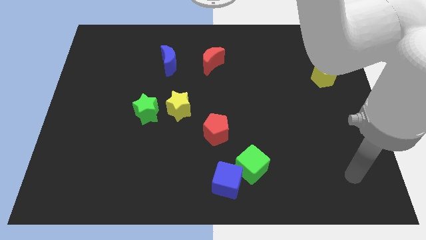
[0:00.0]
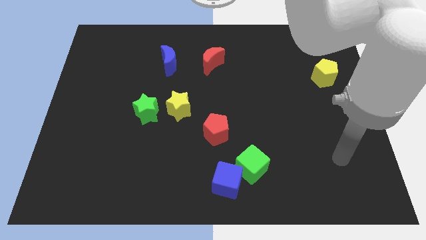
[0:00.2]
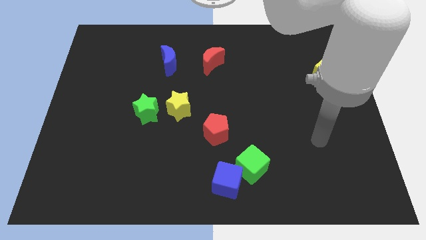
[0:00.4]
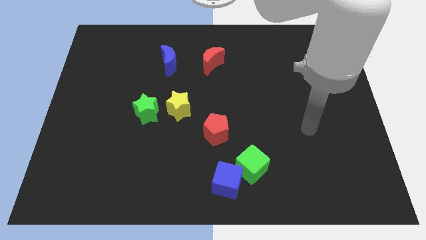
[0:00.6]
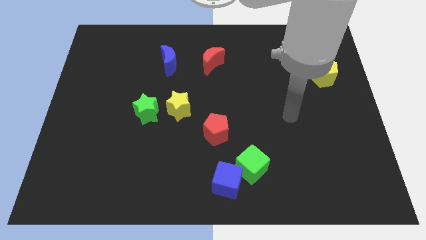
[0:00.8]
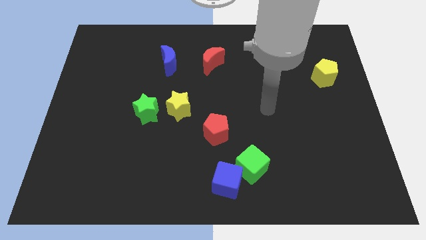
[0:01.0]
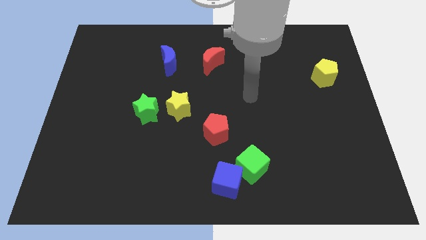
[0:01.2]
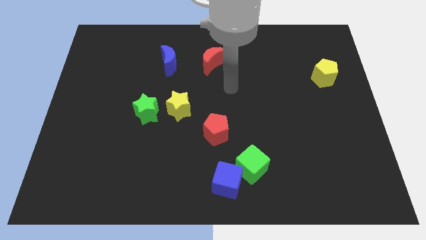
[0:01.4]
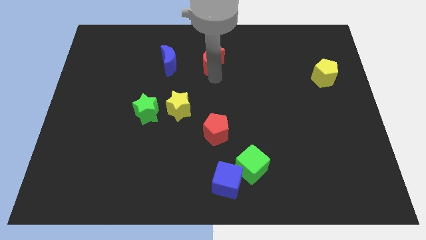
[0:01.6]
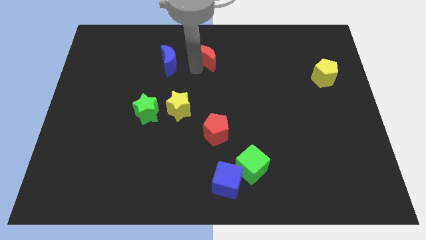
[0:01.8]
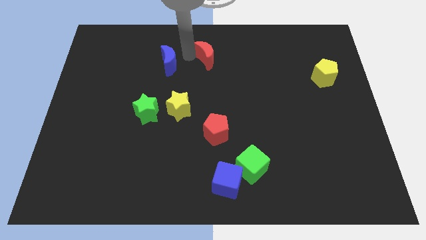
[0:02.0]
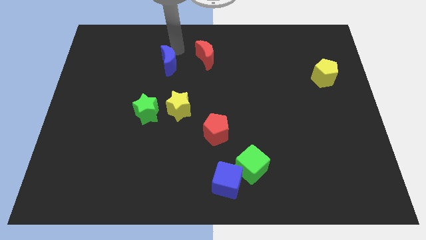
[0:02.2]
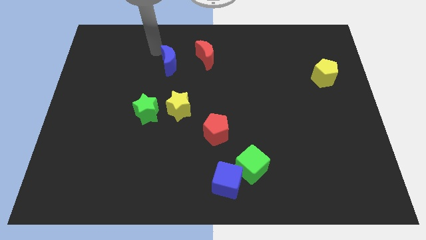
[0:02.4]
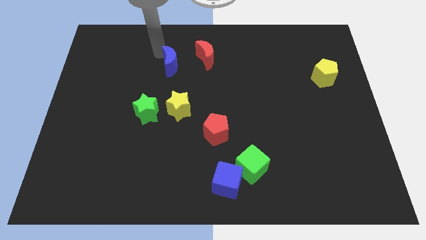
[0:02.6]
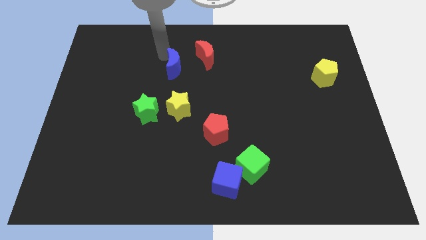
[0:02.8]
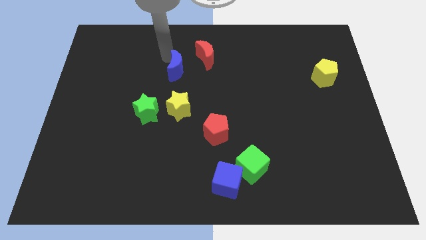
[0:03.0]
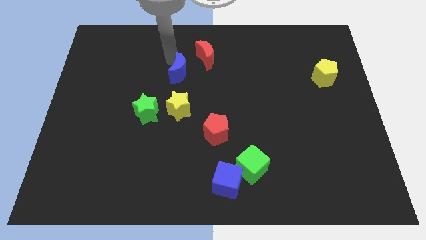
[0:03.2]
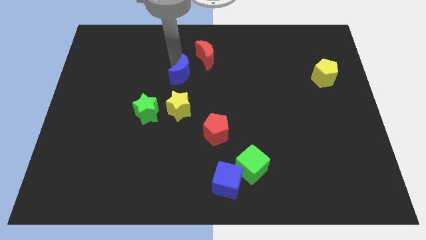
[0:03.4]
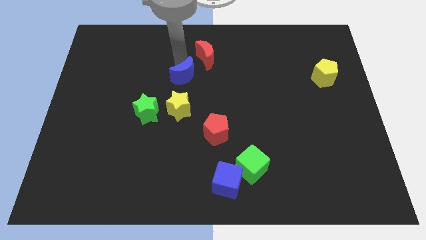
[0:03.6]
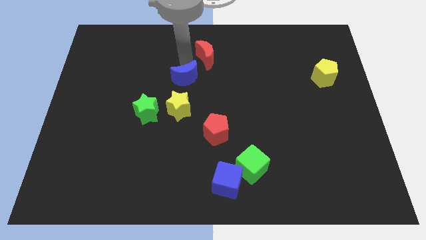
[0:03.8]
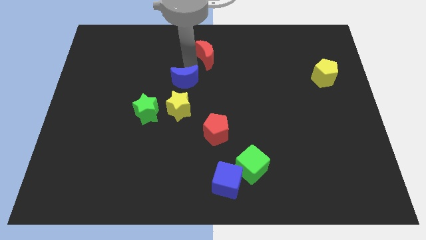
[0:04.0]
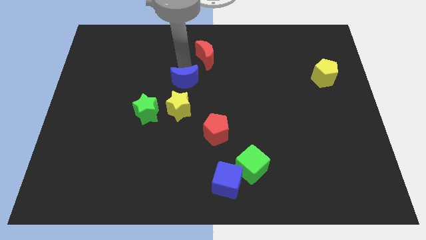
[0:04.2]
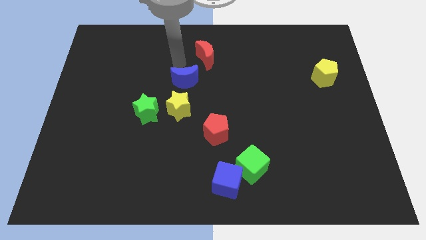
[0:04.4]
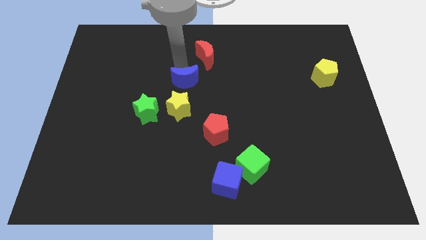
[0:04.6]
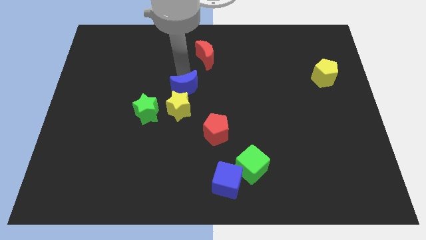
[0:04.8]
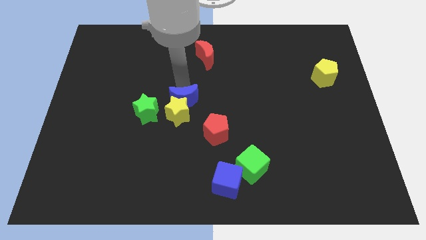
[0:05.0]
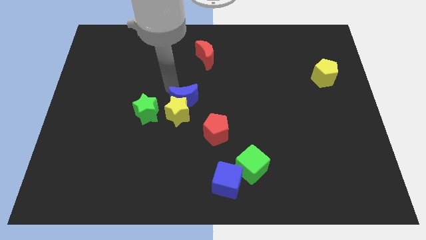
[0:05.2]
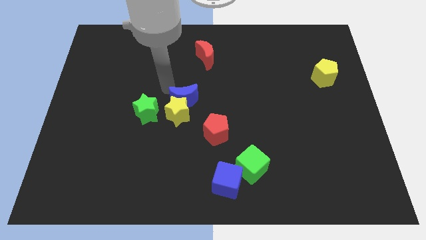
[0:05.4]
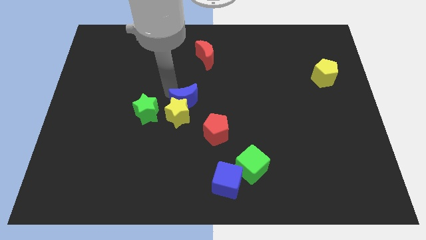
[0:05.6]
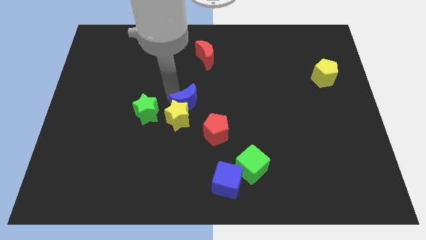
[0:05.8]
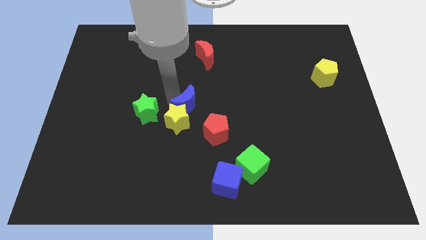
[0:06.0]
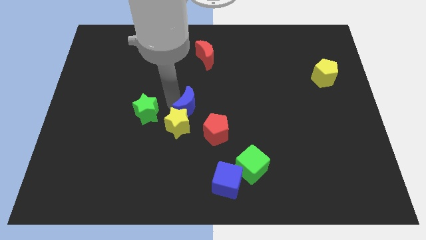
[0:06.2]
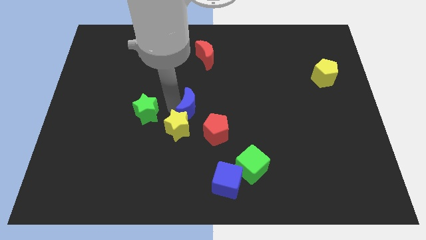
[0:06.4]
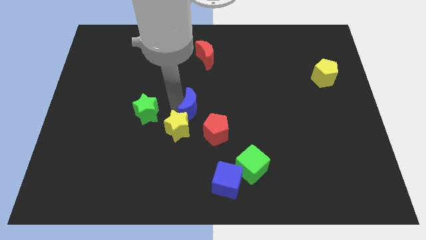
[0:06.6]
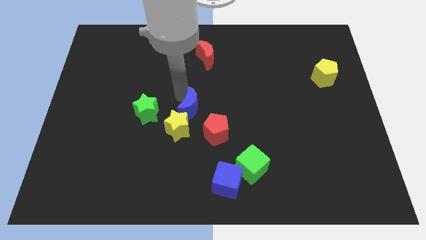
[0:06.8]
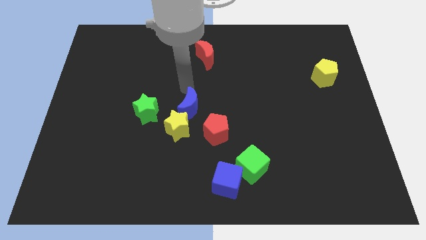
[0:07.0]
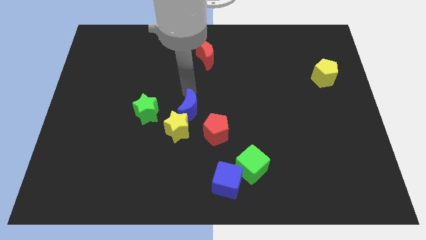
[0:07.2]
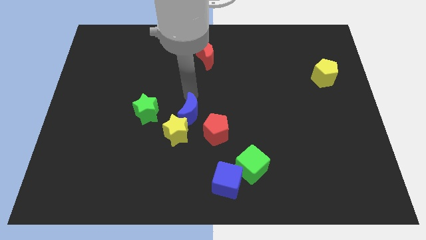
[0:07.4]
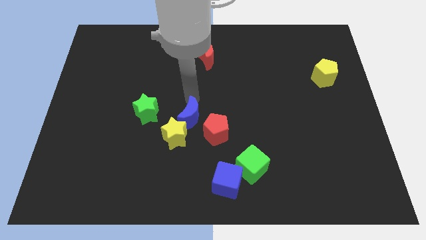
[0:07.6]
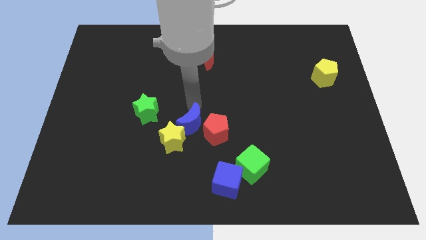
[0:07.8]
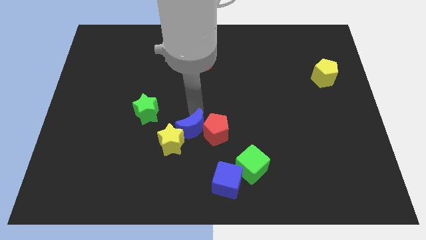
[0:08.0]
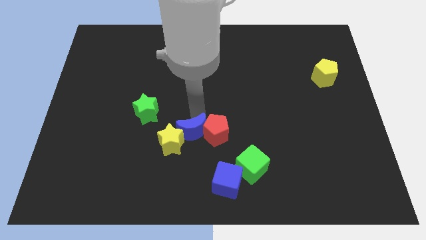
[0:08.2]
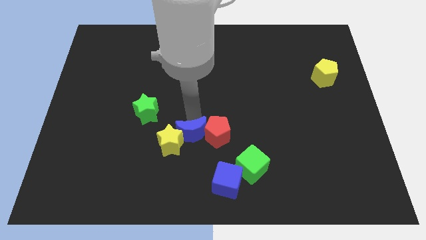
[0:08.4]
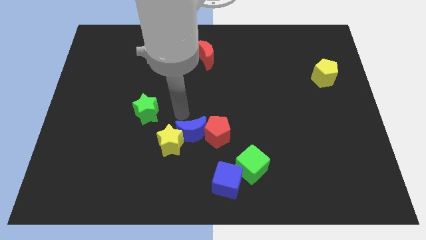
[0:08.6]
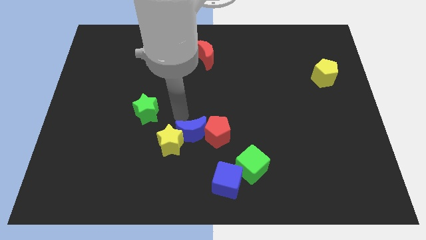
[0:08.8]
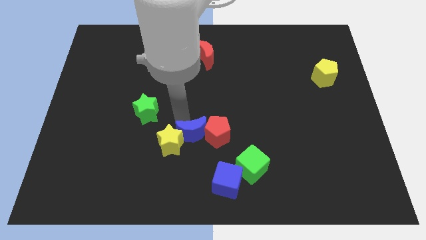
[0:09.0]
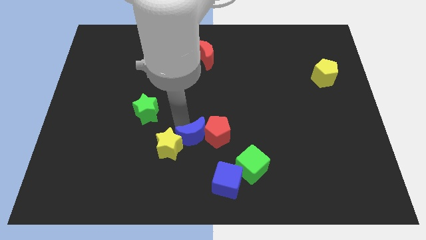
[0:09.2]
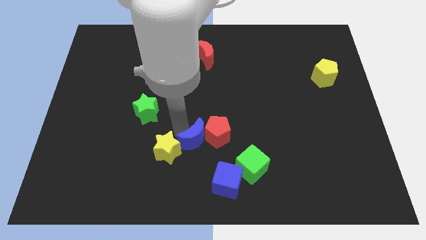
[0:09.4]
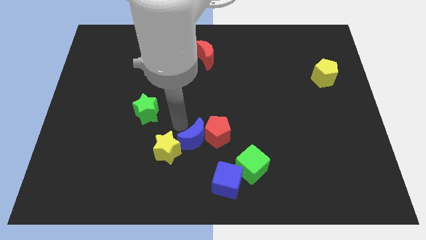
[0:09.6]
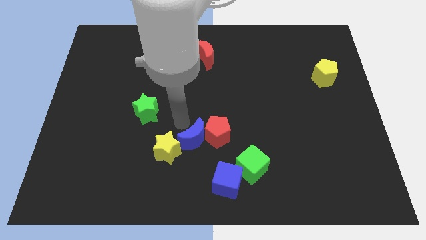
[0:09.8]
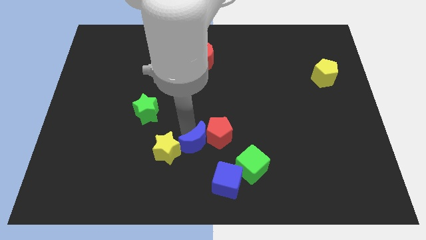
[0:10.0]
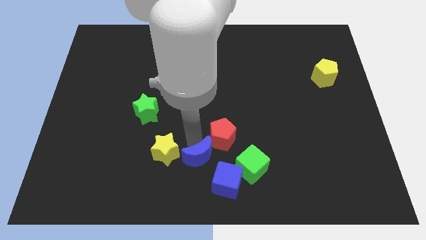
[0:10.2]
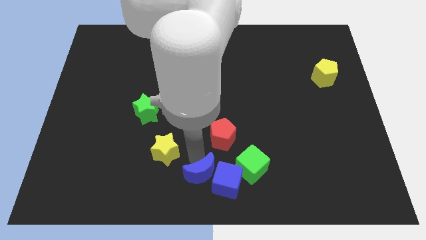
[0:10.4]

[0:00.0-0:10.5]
slide the blue moon next to the blue cube

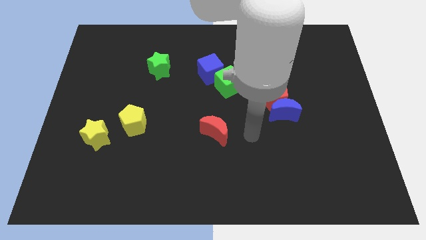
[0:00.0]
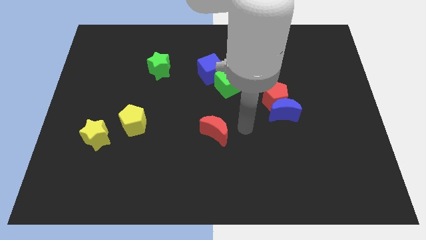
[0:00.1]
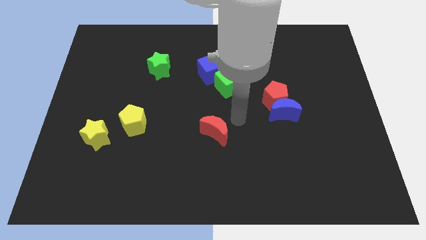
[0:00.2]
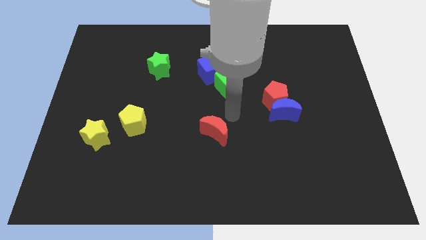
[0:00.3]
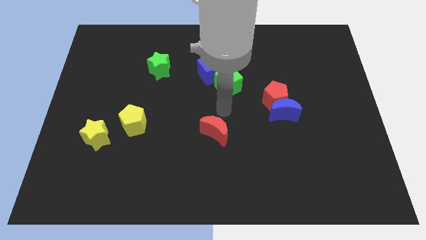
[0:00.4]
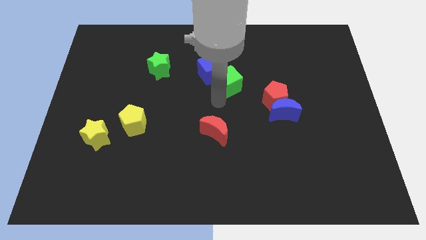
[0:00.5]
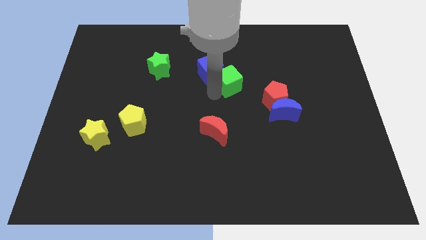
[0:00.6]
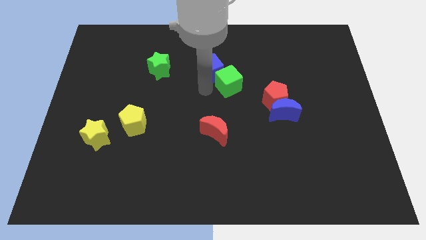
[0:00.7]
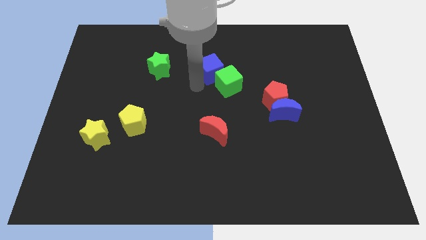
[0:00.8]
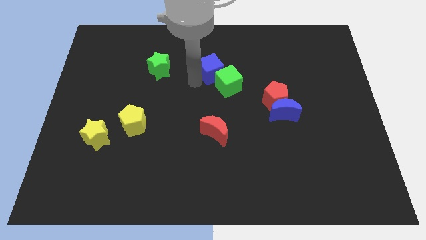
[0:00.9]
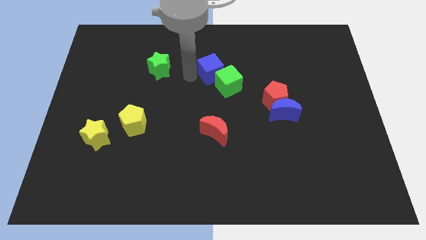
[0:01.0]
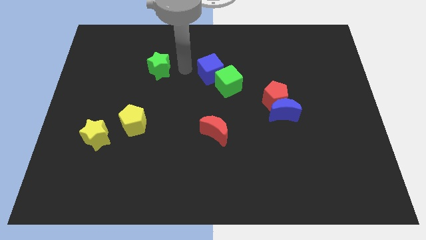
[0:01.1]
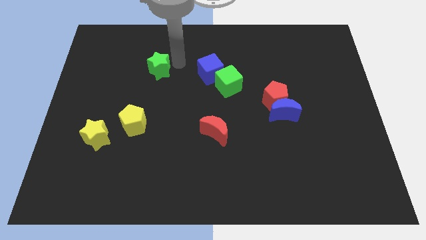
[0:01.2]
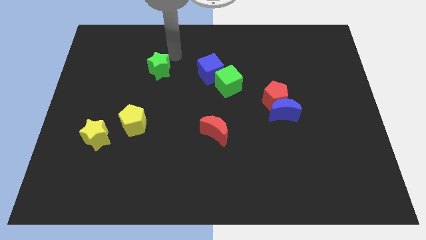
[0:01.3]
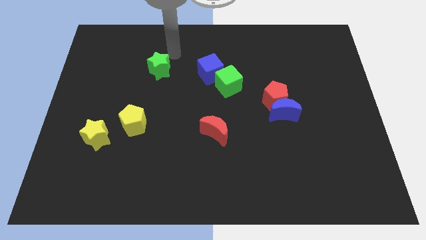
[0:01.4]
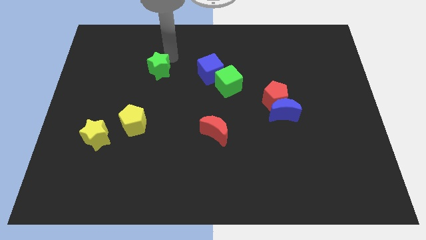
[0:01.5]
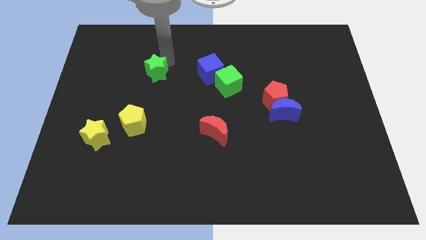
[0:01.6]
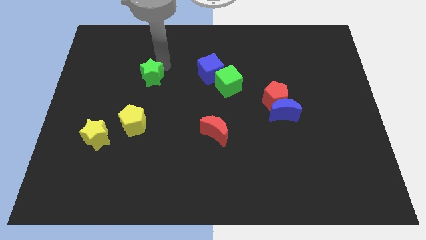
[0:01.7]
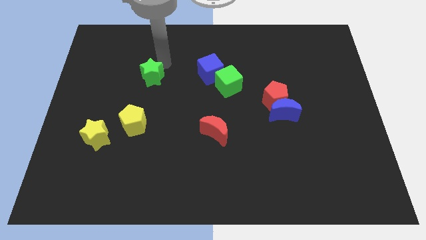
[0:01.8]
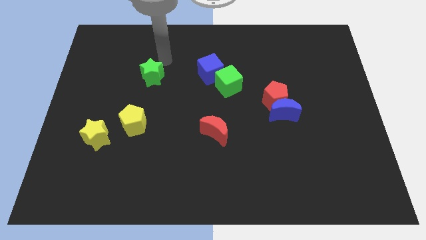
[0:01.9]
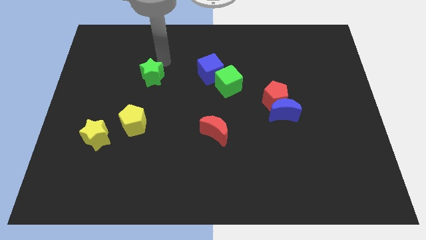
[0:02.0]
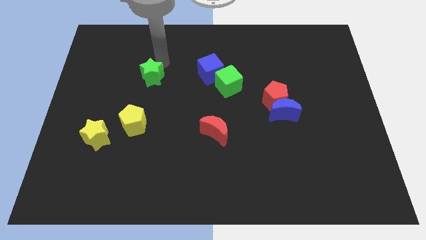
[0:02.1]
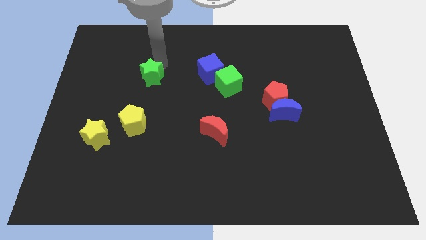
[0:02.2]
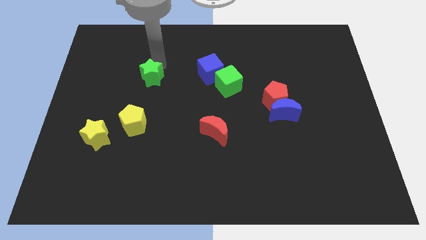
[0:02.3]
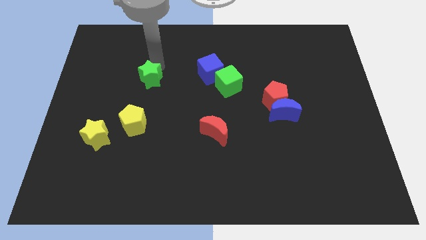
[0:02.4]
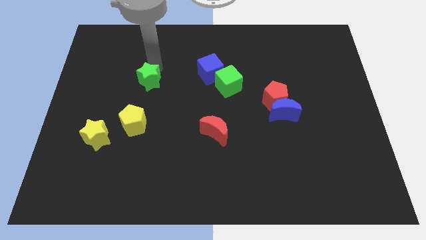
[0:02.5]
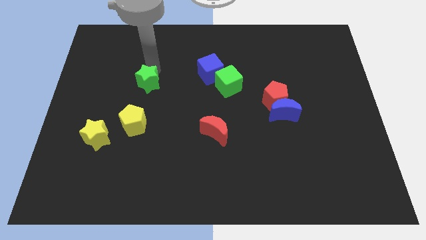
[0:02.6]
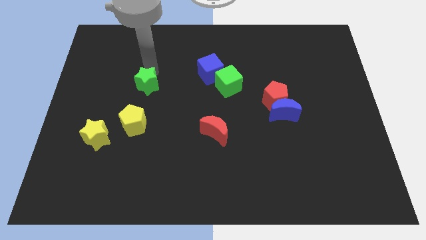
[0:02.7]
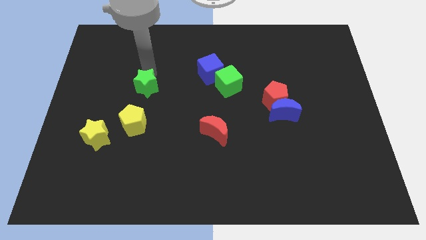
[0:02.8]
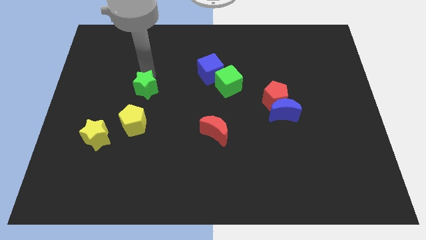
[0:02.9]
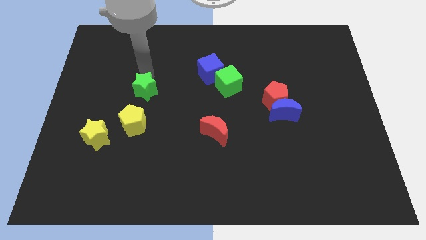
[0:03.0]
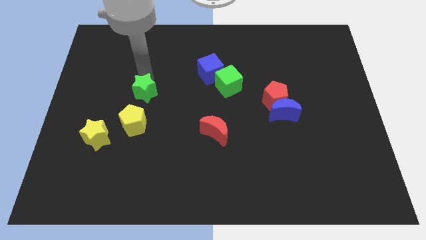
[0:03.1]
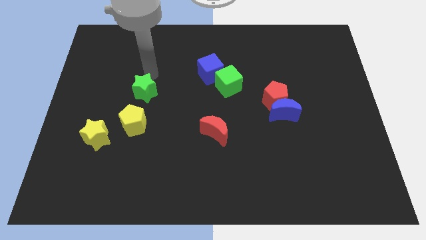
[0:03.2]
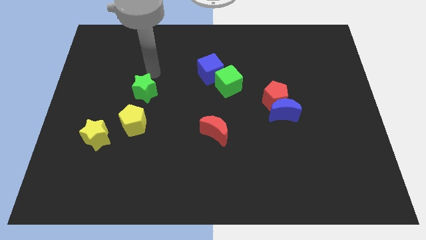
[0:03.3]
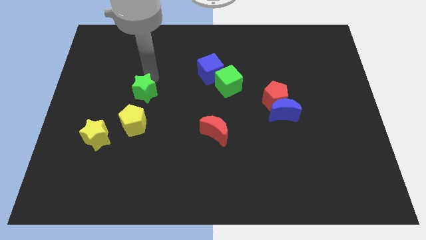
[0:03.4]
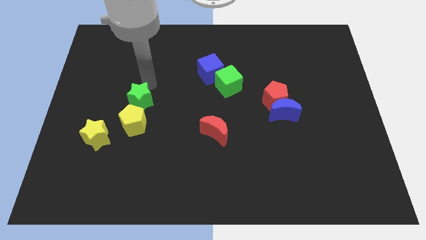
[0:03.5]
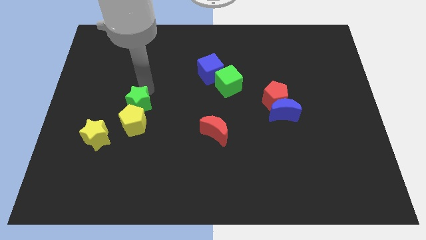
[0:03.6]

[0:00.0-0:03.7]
move the green star close to the yellow pentagon
